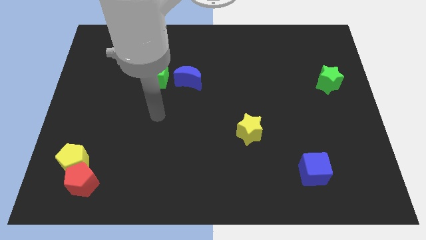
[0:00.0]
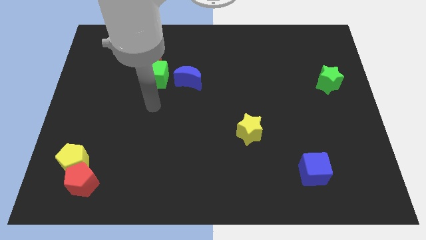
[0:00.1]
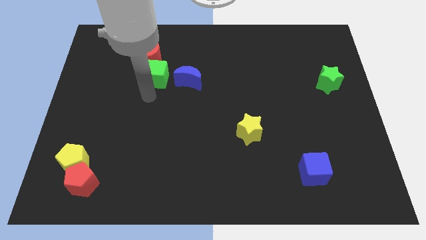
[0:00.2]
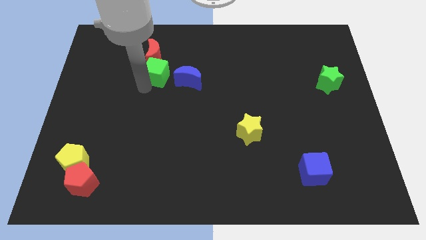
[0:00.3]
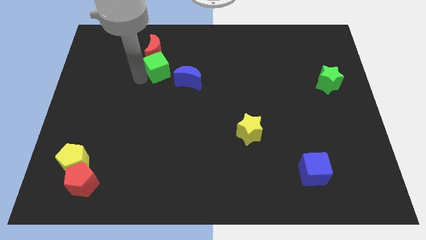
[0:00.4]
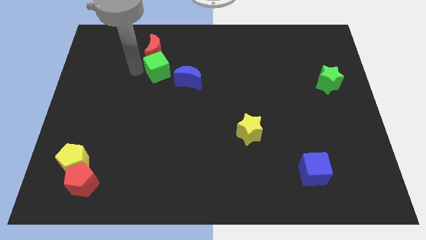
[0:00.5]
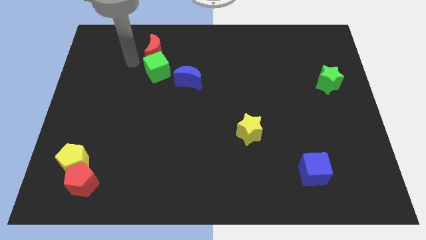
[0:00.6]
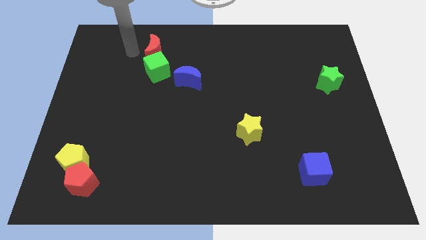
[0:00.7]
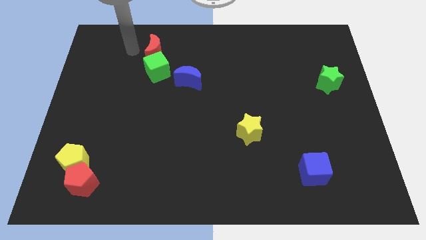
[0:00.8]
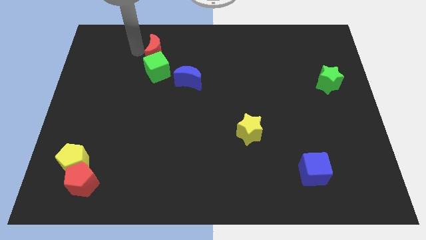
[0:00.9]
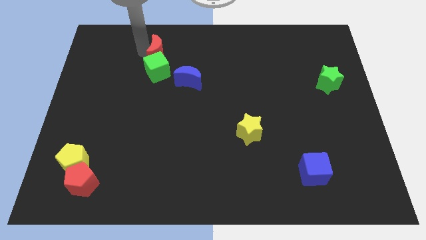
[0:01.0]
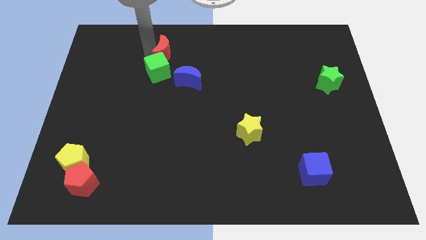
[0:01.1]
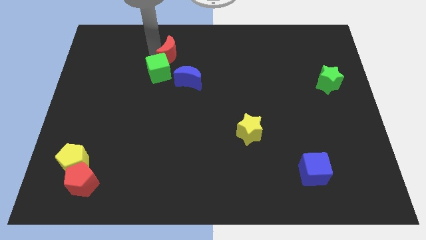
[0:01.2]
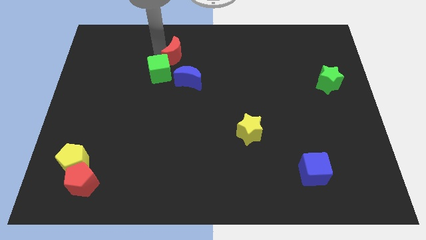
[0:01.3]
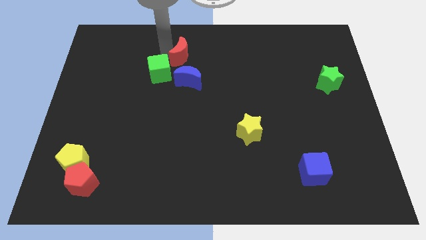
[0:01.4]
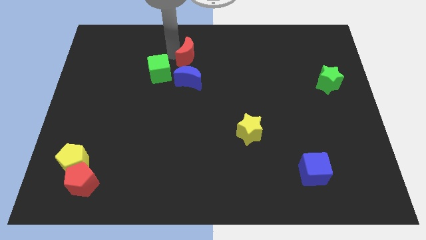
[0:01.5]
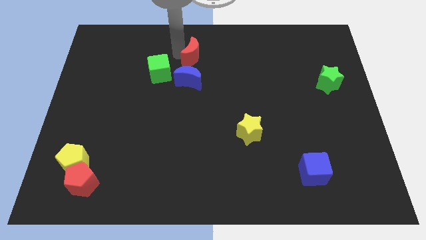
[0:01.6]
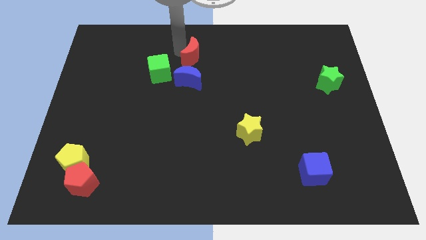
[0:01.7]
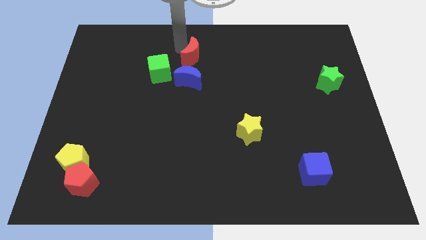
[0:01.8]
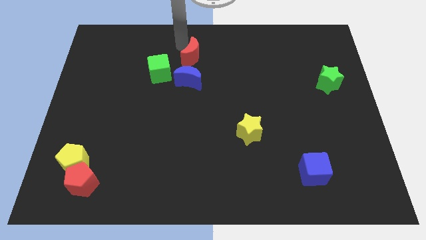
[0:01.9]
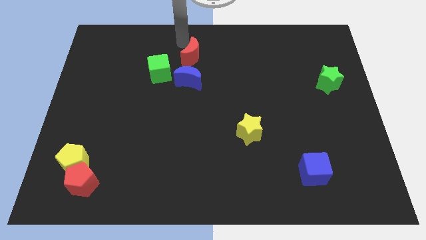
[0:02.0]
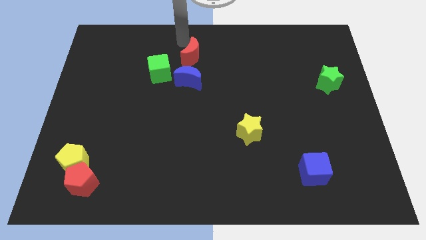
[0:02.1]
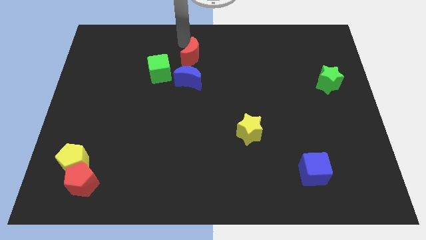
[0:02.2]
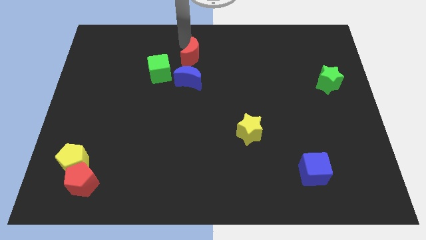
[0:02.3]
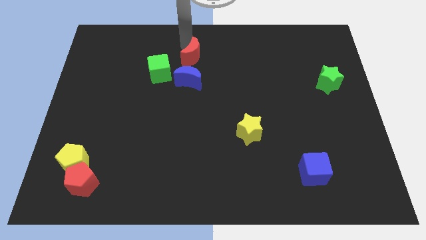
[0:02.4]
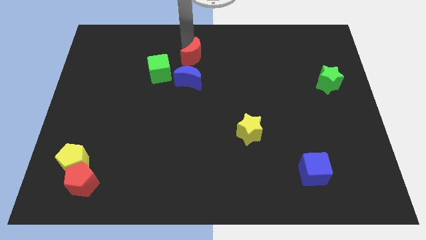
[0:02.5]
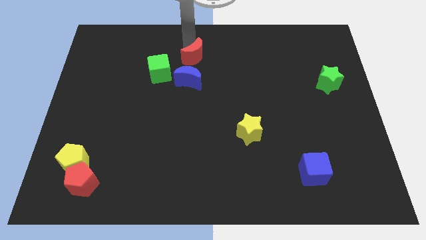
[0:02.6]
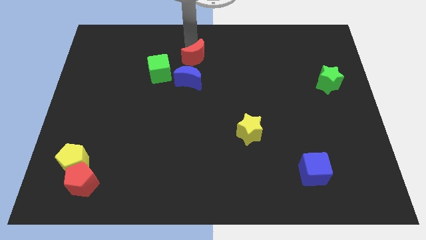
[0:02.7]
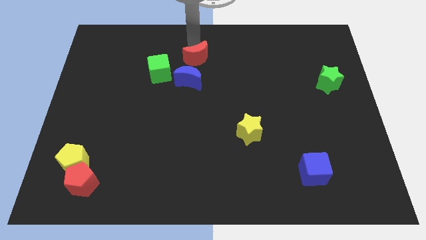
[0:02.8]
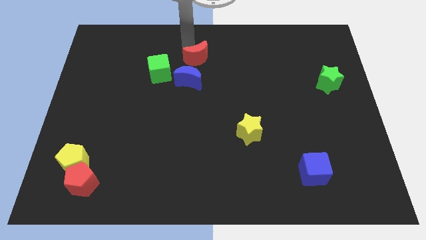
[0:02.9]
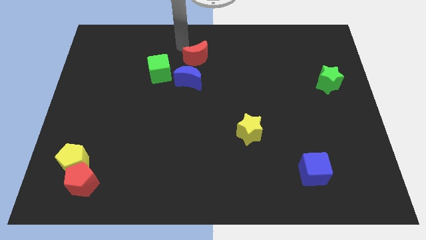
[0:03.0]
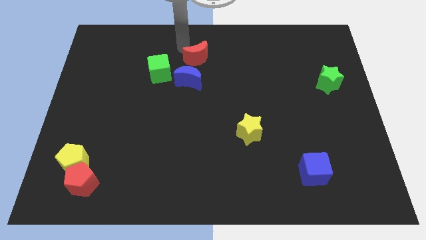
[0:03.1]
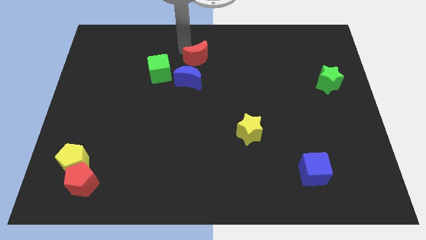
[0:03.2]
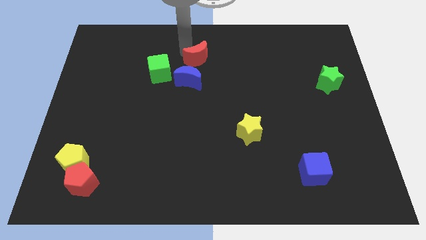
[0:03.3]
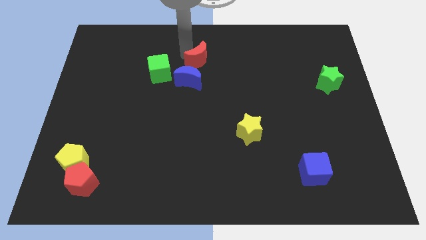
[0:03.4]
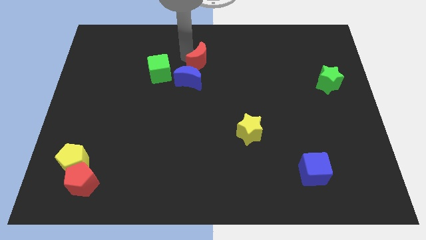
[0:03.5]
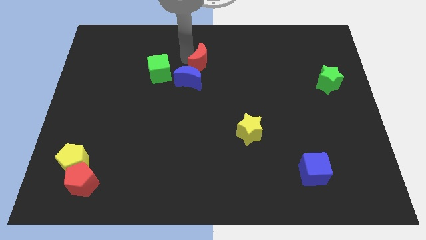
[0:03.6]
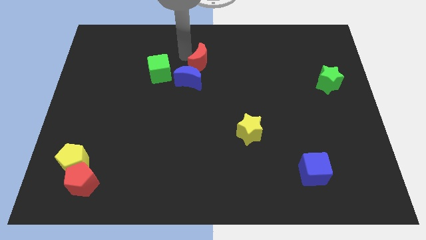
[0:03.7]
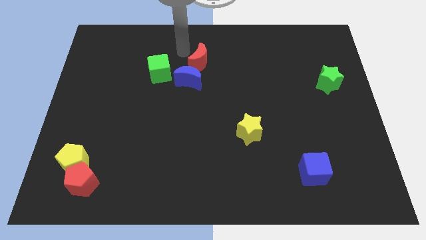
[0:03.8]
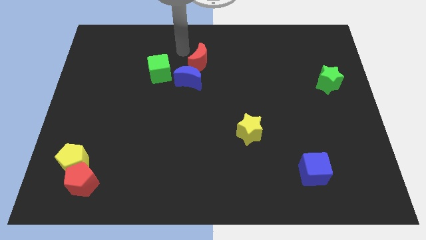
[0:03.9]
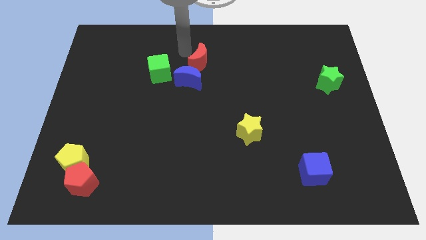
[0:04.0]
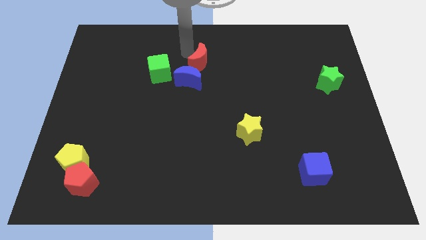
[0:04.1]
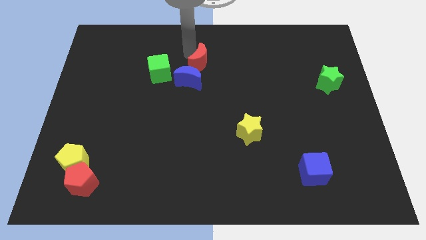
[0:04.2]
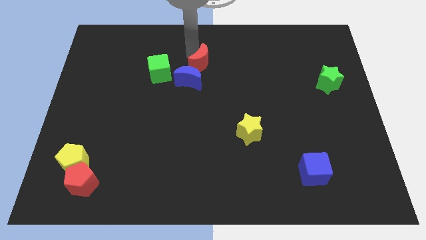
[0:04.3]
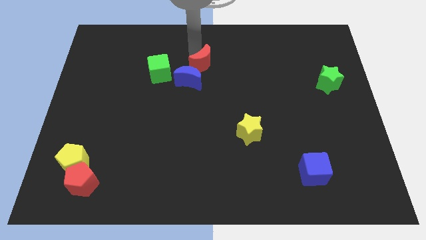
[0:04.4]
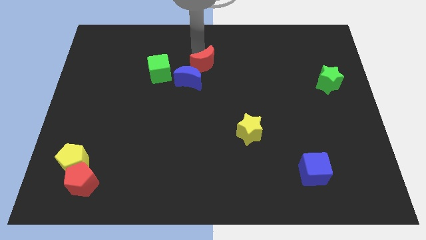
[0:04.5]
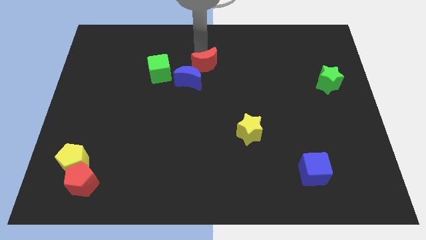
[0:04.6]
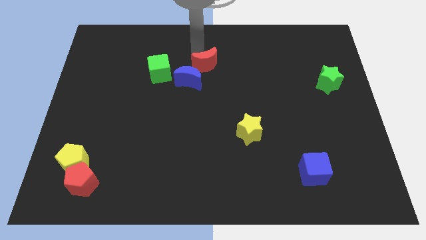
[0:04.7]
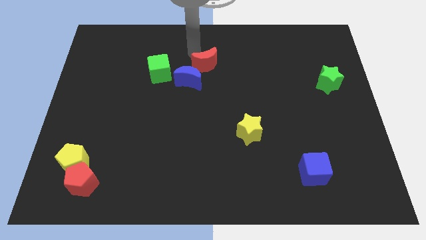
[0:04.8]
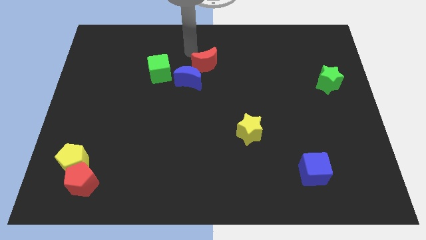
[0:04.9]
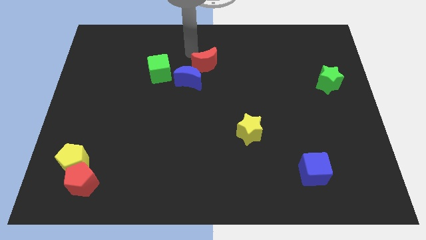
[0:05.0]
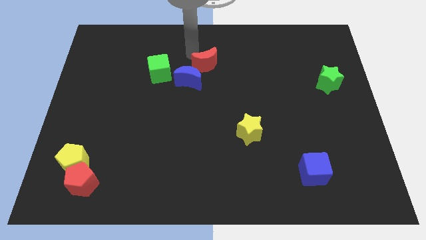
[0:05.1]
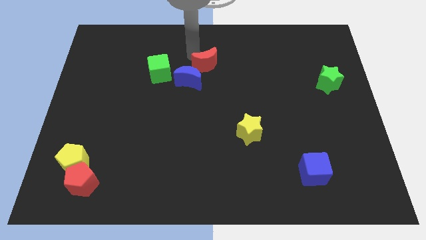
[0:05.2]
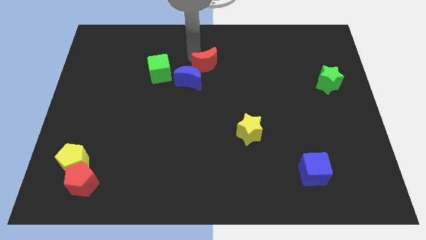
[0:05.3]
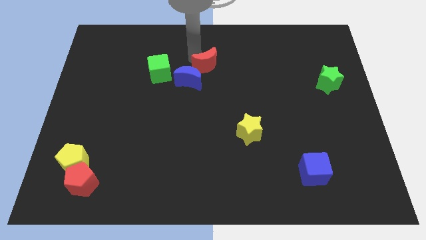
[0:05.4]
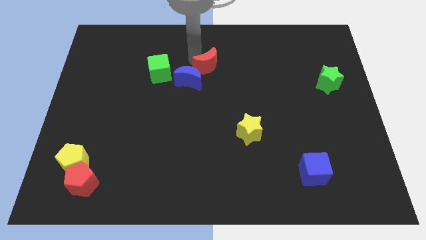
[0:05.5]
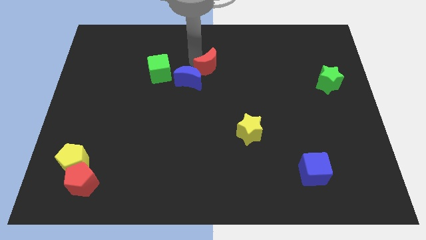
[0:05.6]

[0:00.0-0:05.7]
push the red moon right of the blue moon

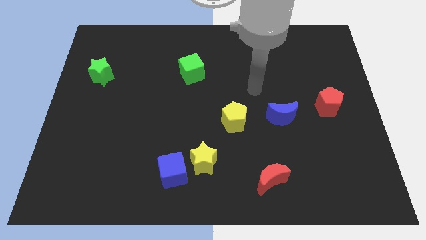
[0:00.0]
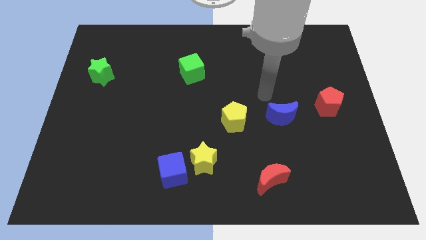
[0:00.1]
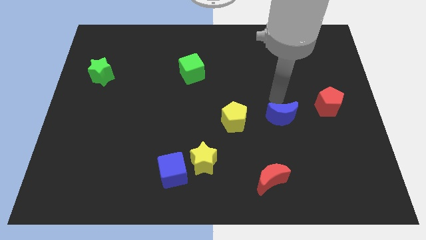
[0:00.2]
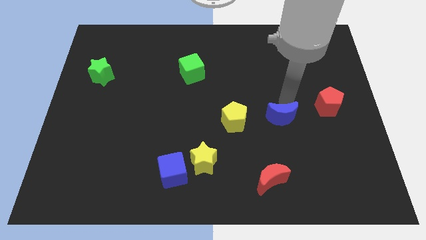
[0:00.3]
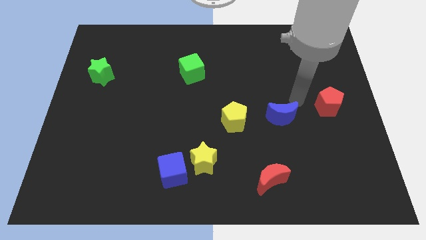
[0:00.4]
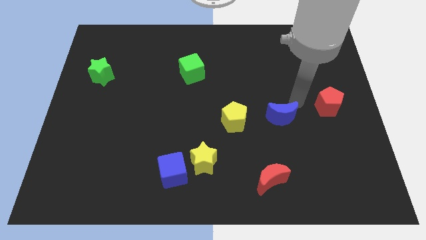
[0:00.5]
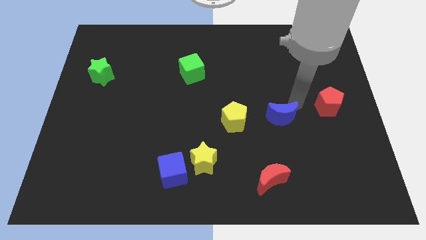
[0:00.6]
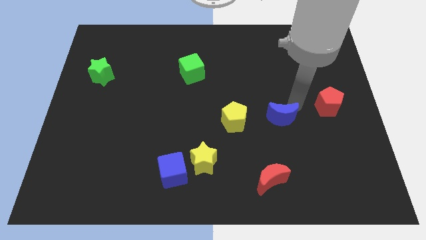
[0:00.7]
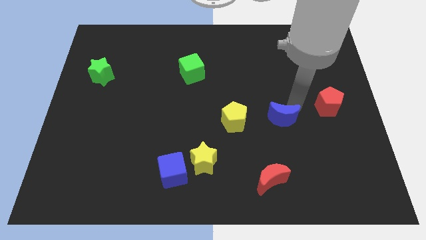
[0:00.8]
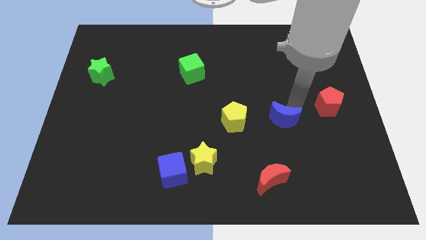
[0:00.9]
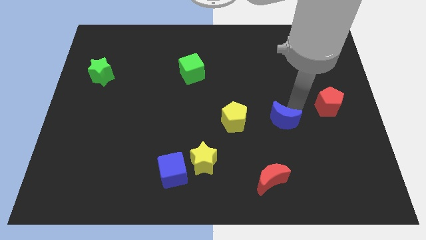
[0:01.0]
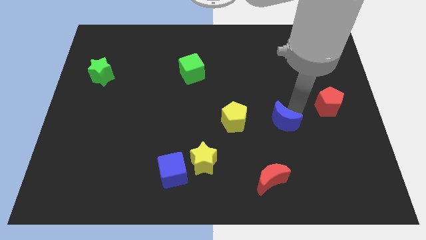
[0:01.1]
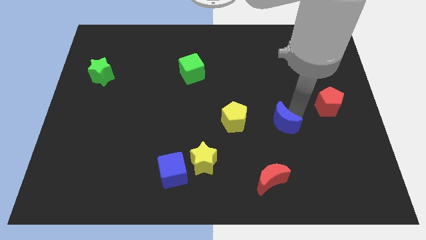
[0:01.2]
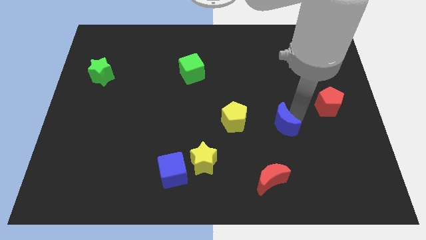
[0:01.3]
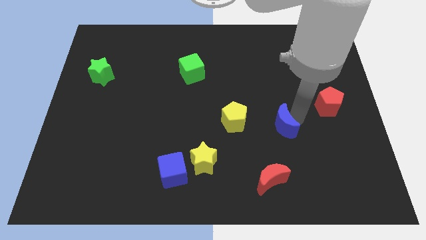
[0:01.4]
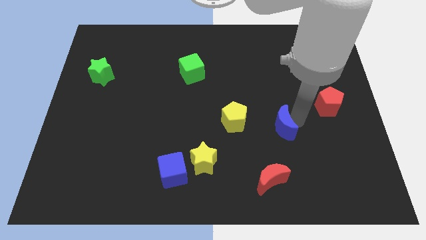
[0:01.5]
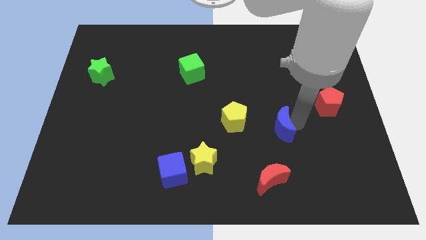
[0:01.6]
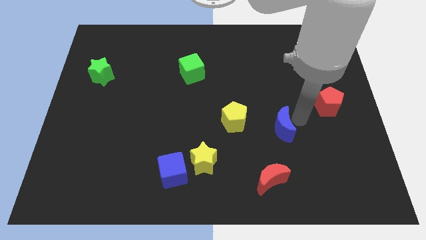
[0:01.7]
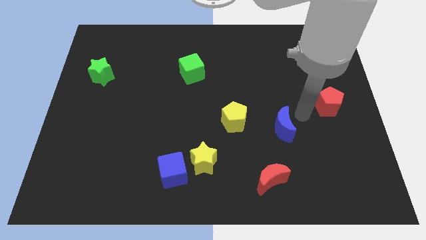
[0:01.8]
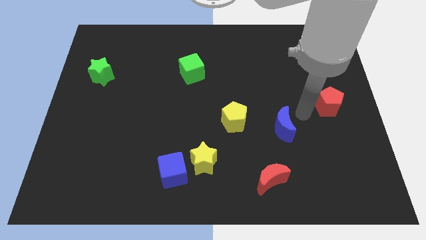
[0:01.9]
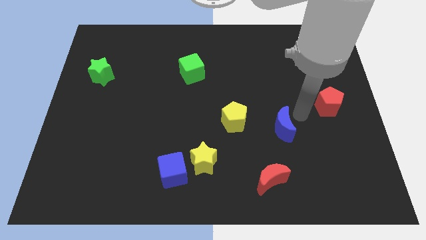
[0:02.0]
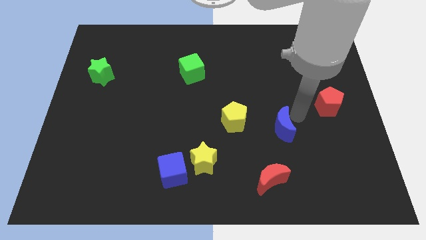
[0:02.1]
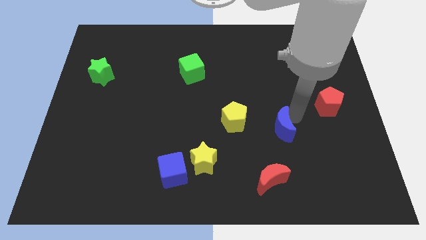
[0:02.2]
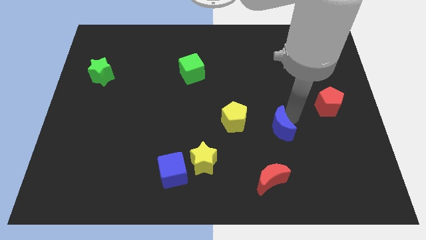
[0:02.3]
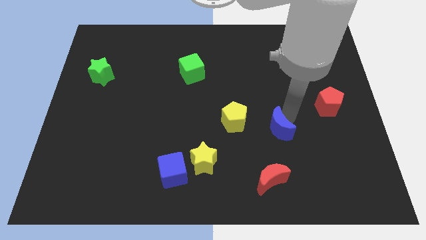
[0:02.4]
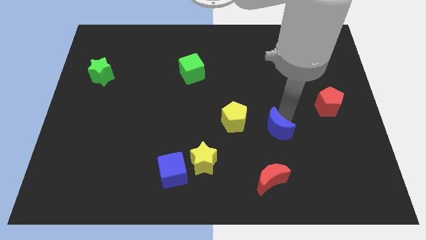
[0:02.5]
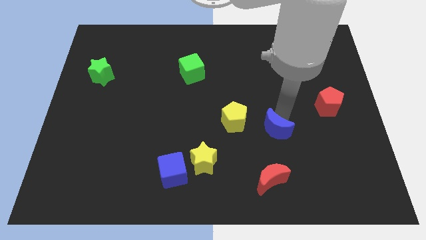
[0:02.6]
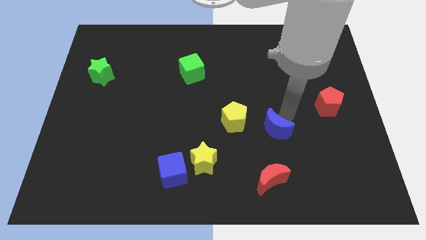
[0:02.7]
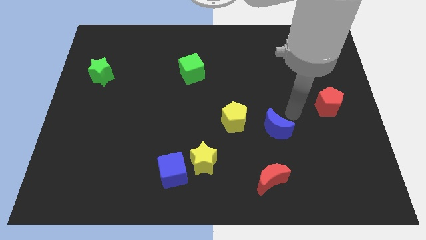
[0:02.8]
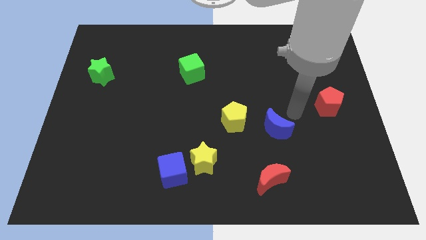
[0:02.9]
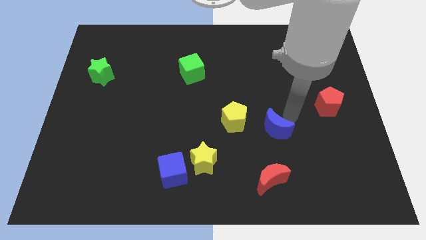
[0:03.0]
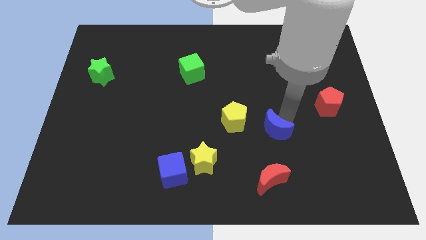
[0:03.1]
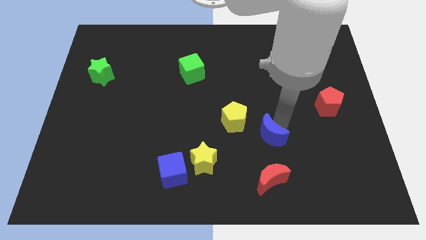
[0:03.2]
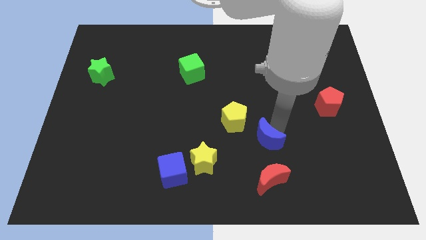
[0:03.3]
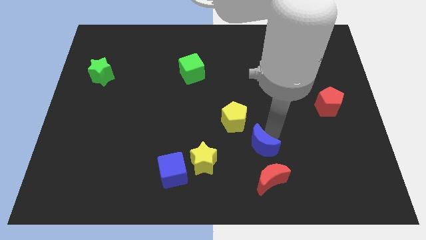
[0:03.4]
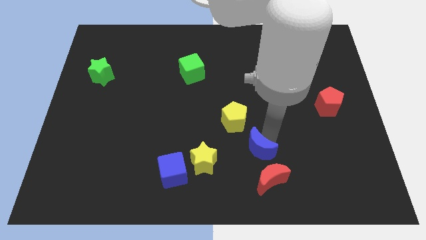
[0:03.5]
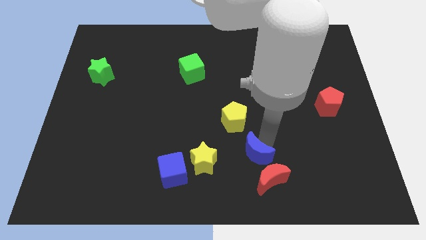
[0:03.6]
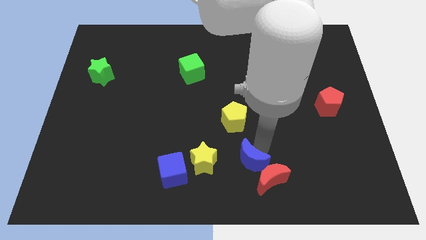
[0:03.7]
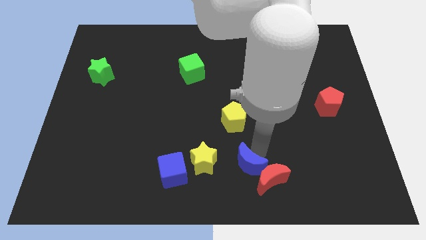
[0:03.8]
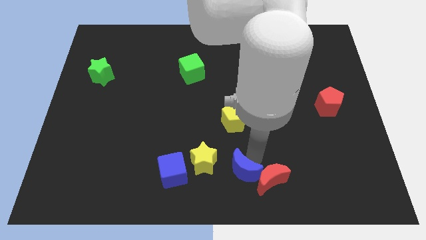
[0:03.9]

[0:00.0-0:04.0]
slide the blue moon to the bottom right of the yellow star
